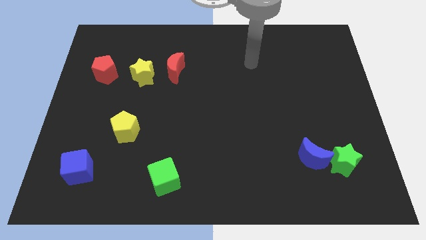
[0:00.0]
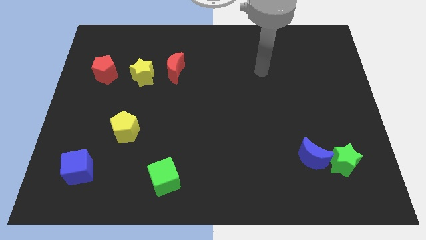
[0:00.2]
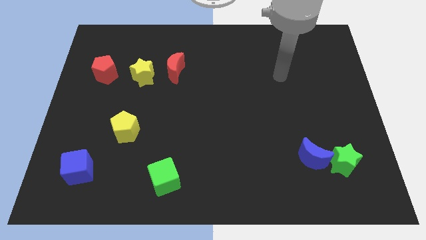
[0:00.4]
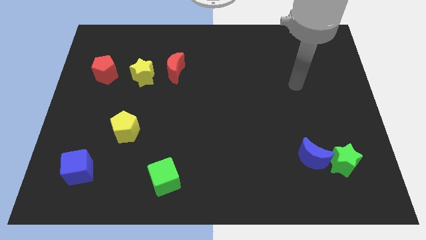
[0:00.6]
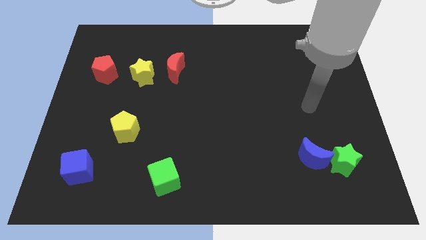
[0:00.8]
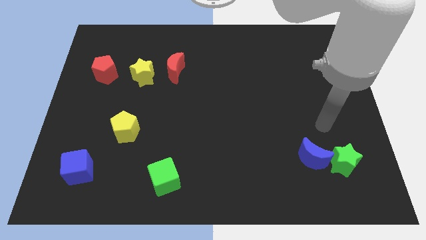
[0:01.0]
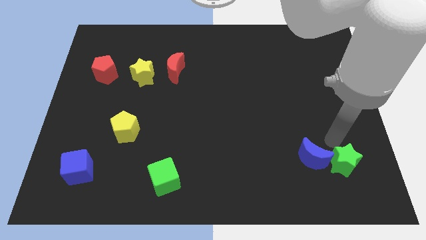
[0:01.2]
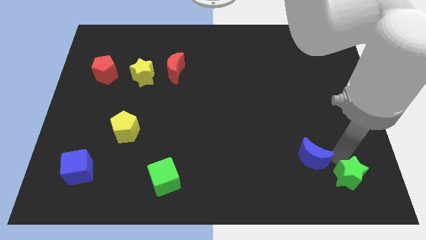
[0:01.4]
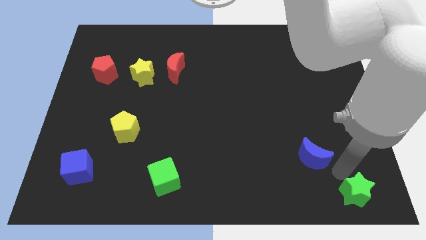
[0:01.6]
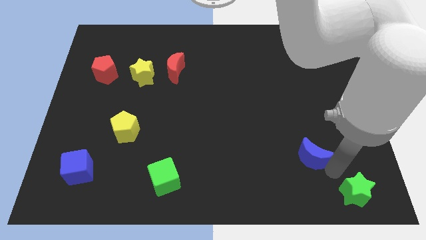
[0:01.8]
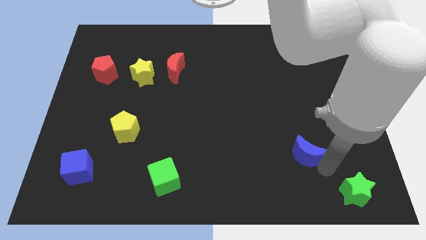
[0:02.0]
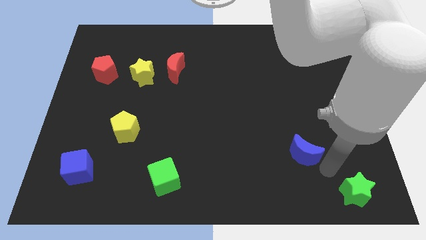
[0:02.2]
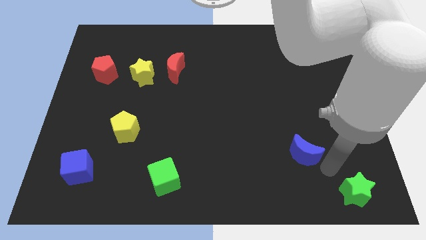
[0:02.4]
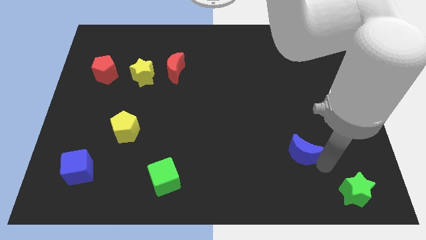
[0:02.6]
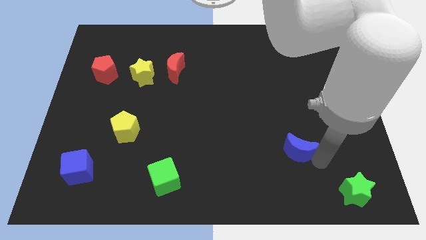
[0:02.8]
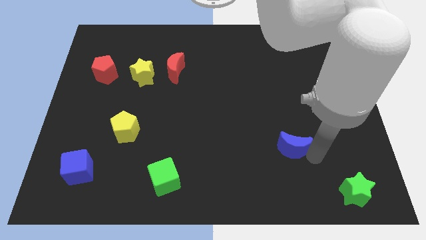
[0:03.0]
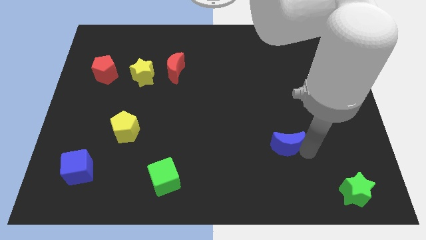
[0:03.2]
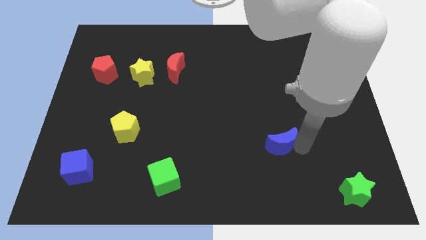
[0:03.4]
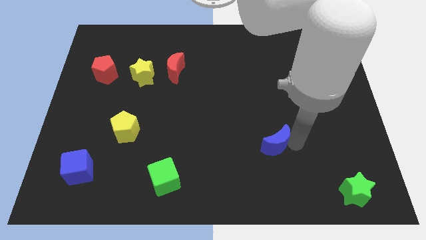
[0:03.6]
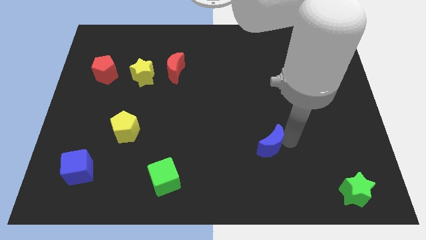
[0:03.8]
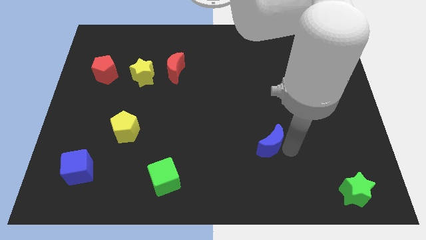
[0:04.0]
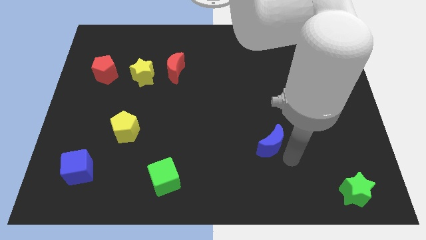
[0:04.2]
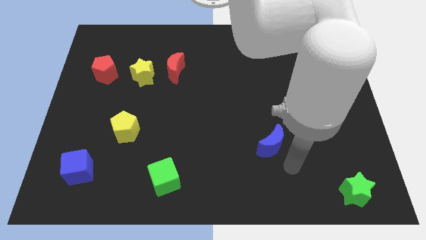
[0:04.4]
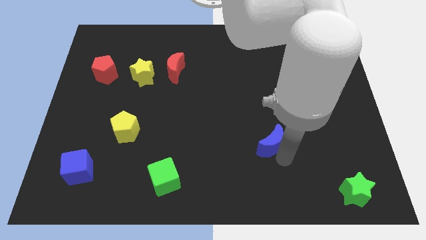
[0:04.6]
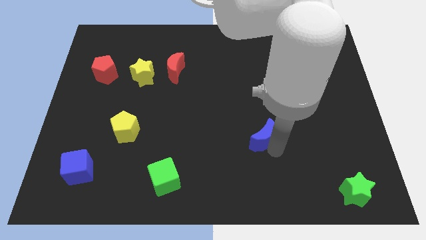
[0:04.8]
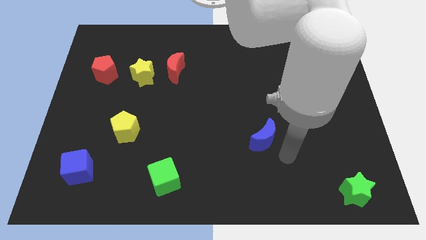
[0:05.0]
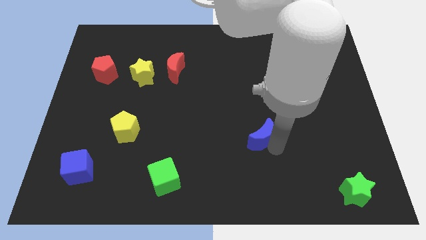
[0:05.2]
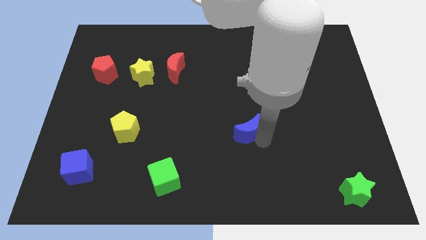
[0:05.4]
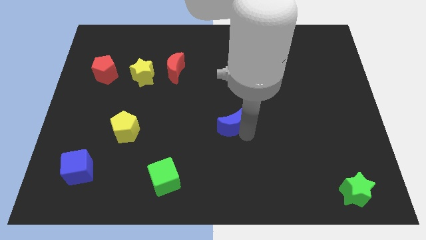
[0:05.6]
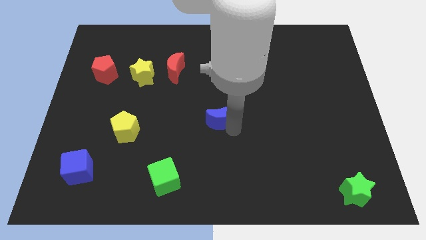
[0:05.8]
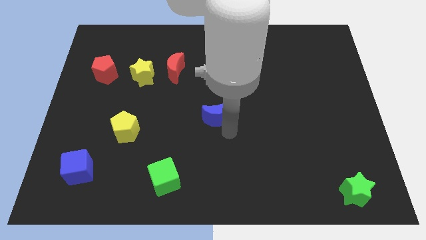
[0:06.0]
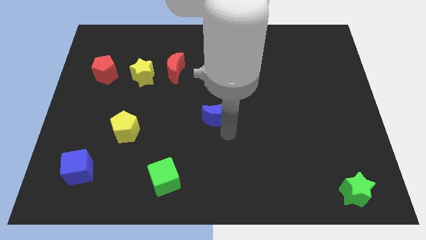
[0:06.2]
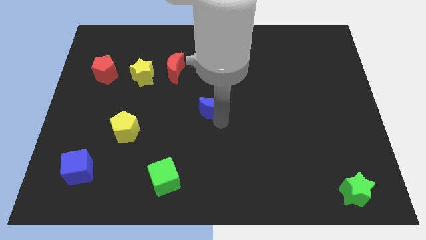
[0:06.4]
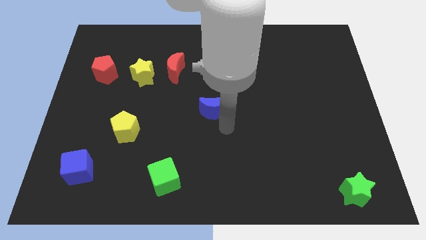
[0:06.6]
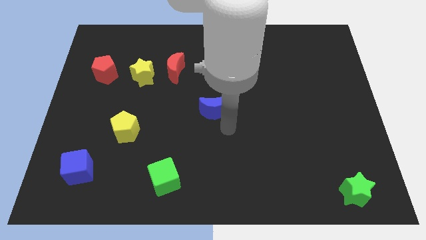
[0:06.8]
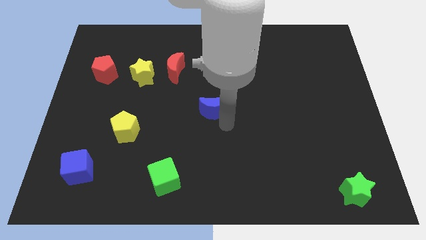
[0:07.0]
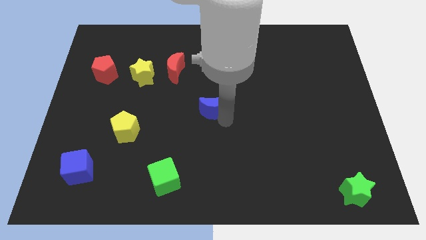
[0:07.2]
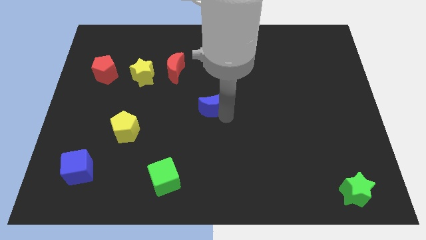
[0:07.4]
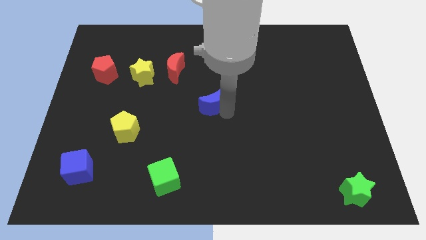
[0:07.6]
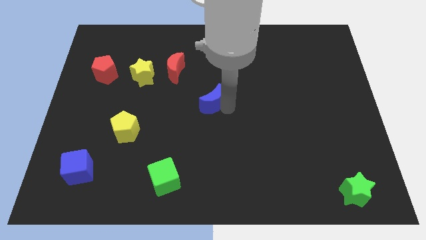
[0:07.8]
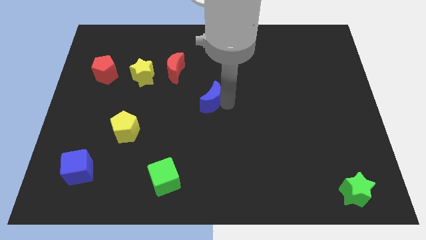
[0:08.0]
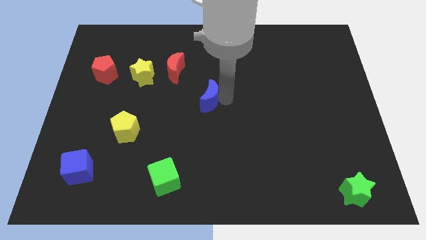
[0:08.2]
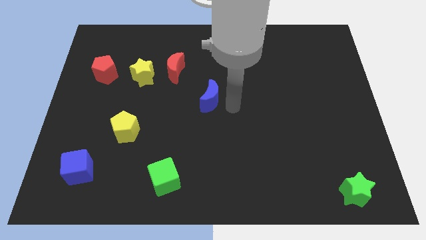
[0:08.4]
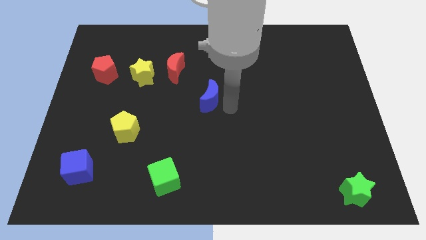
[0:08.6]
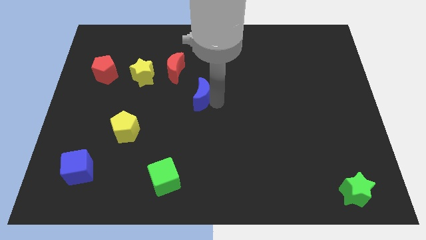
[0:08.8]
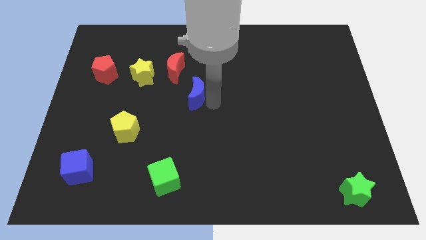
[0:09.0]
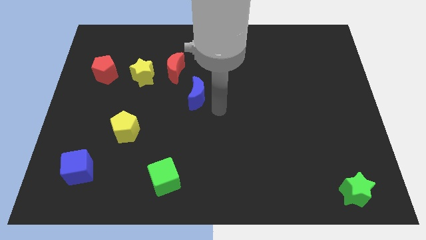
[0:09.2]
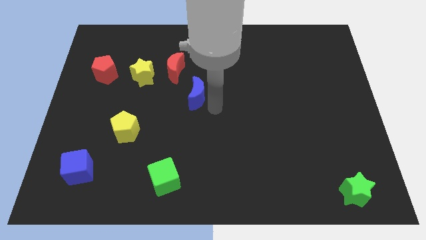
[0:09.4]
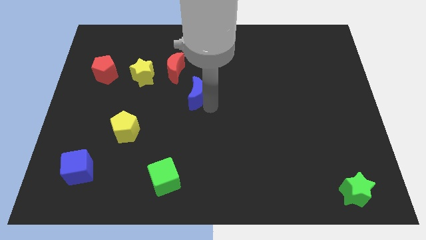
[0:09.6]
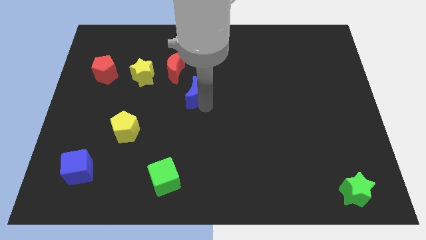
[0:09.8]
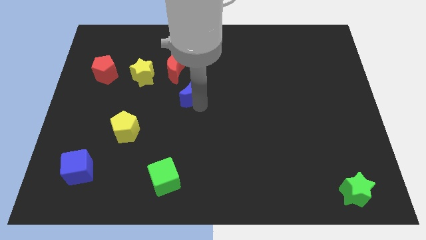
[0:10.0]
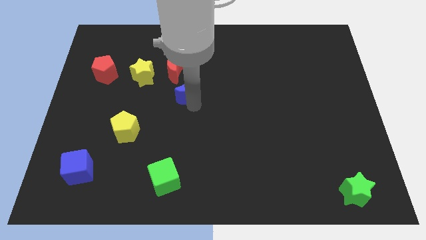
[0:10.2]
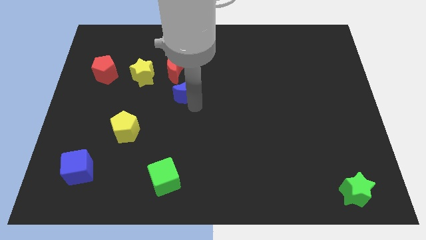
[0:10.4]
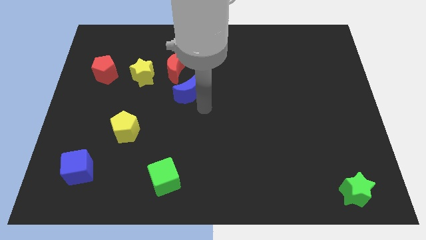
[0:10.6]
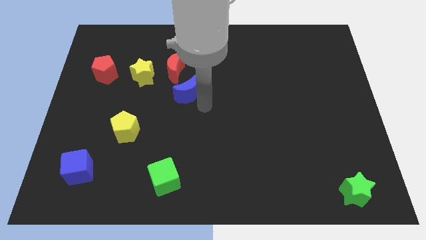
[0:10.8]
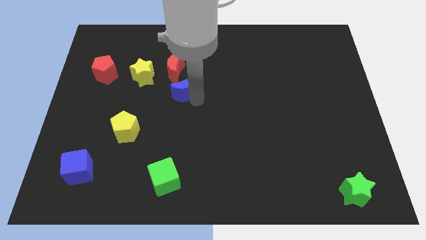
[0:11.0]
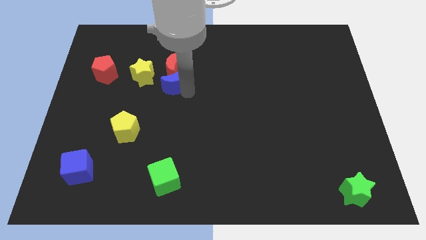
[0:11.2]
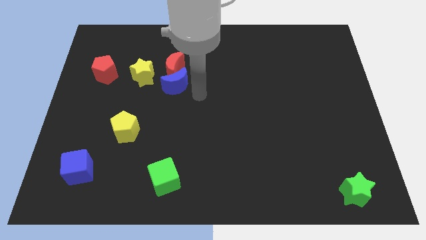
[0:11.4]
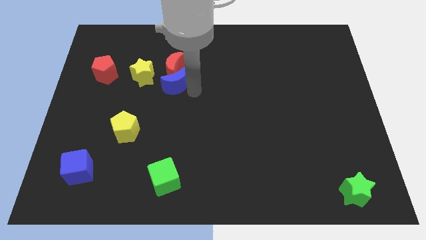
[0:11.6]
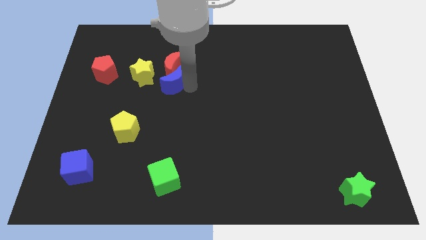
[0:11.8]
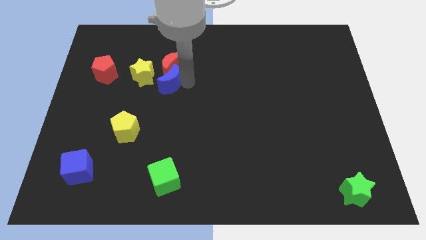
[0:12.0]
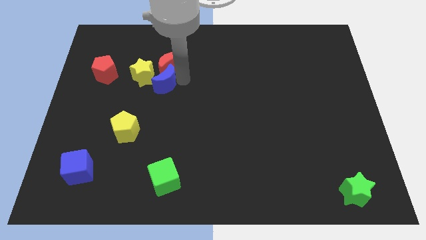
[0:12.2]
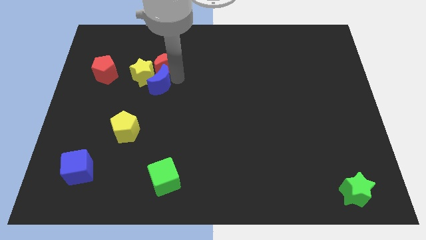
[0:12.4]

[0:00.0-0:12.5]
push the blue moon just right of the red pentagon

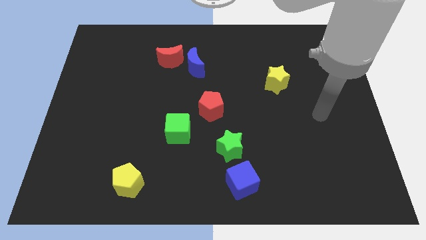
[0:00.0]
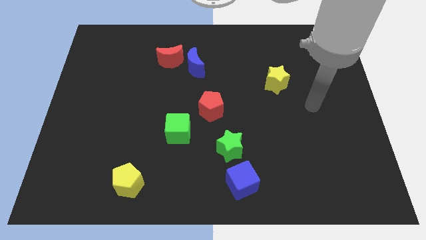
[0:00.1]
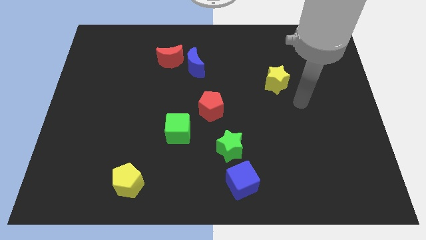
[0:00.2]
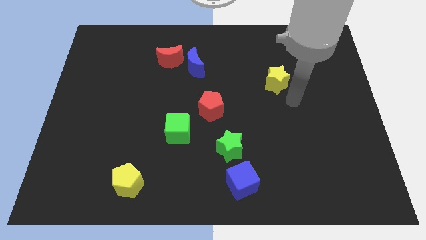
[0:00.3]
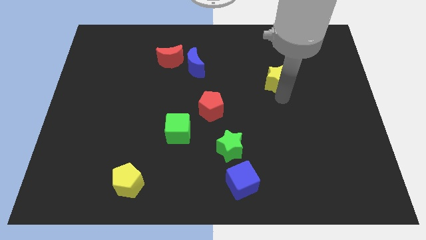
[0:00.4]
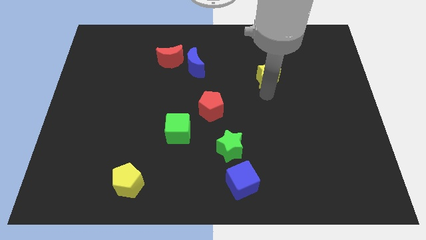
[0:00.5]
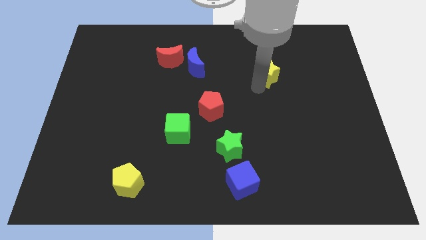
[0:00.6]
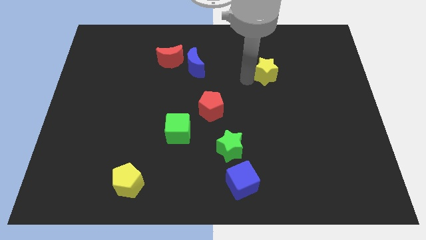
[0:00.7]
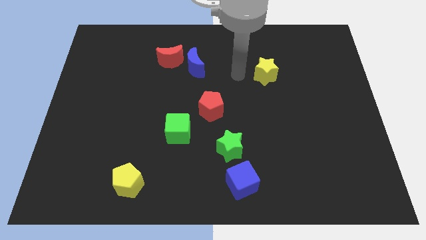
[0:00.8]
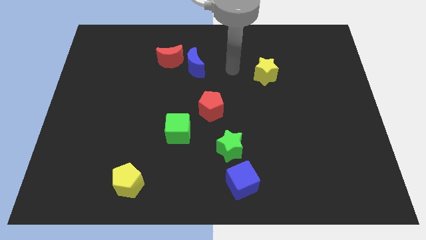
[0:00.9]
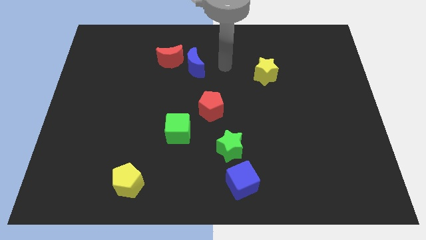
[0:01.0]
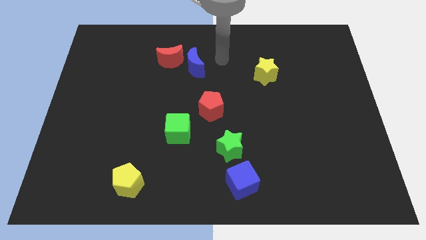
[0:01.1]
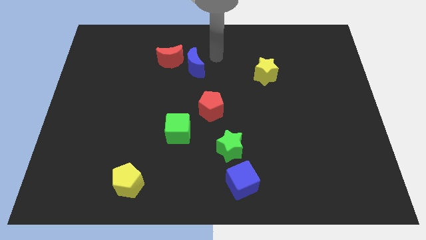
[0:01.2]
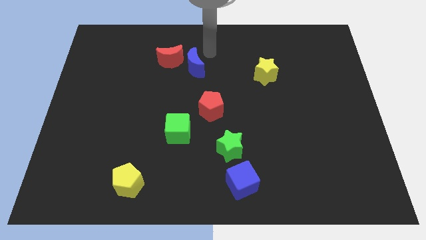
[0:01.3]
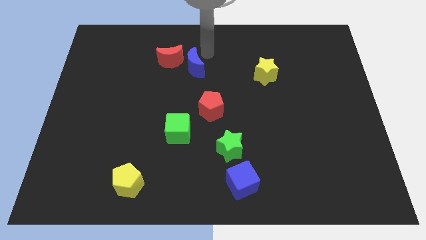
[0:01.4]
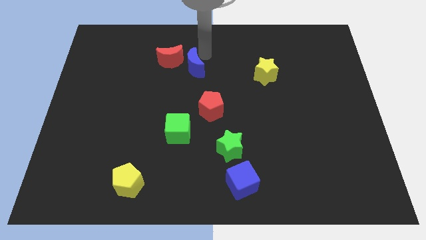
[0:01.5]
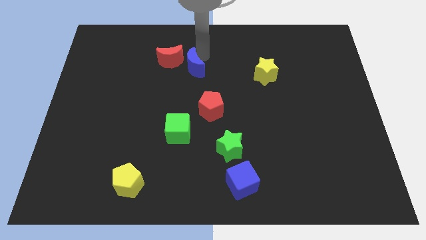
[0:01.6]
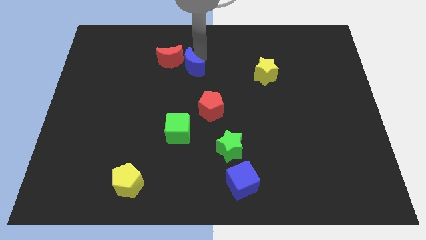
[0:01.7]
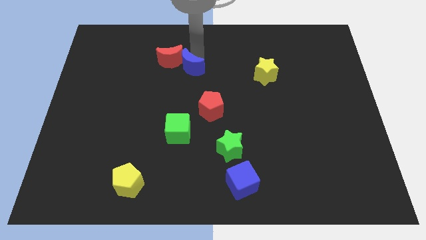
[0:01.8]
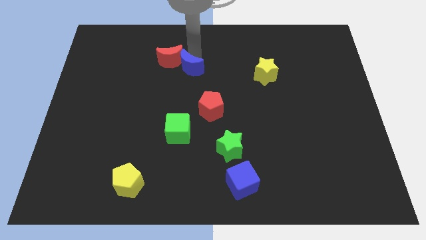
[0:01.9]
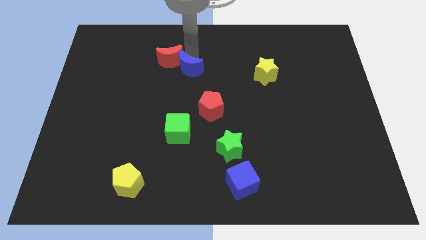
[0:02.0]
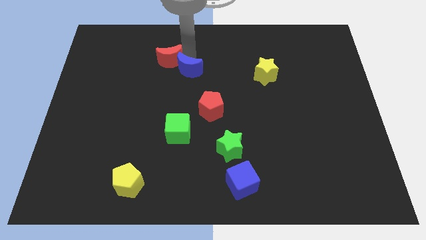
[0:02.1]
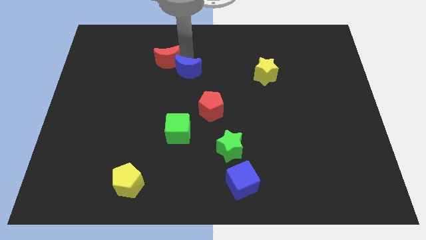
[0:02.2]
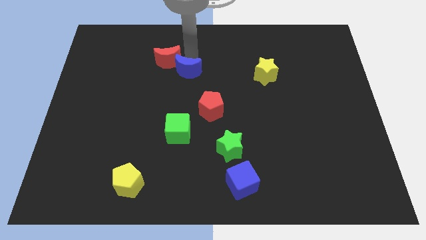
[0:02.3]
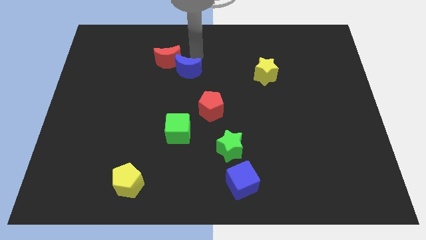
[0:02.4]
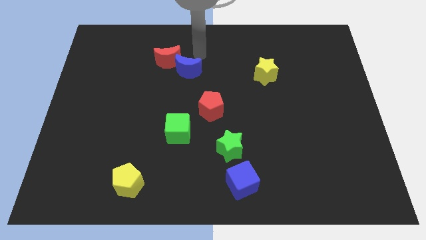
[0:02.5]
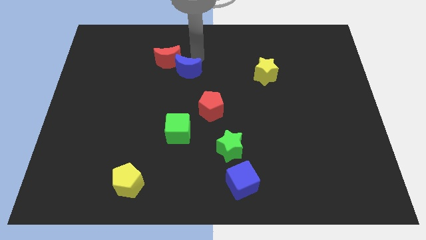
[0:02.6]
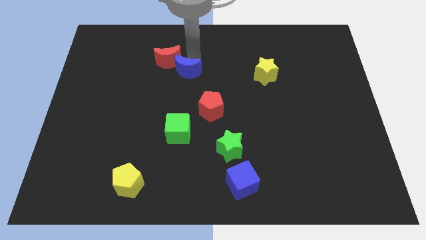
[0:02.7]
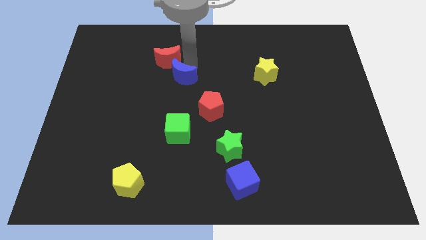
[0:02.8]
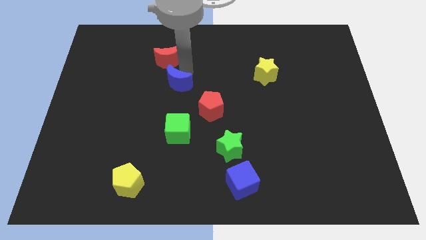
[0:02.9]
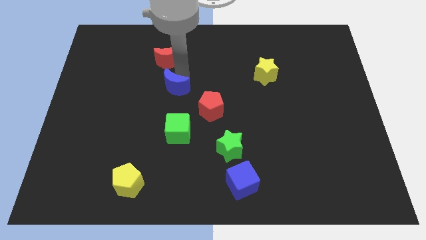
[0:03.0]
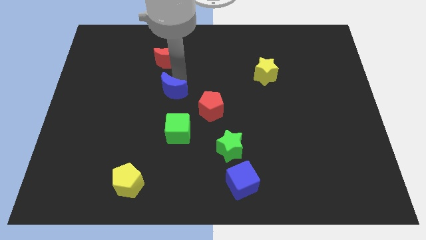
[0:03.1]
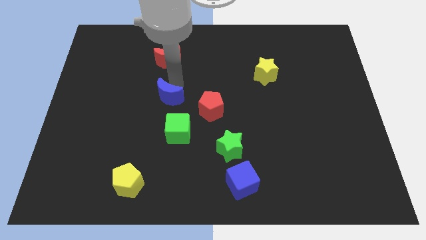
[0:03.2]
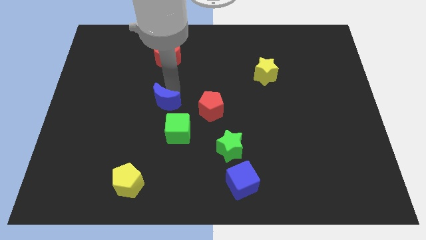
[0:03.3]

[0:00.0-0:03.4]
push the blue moon to the top left side of the green cube
